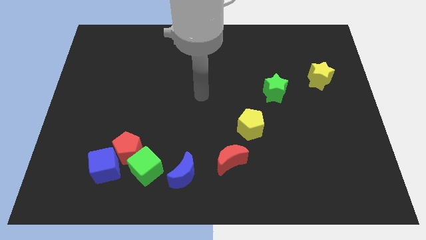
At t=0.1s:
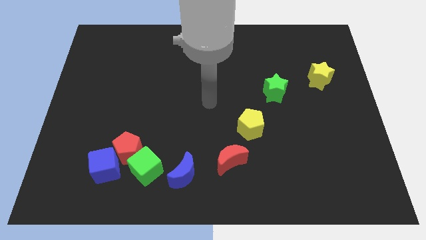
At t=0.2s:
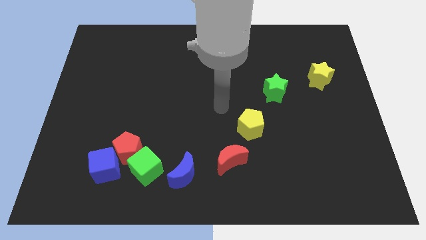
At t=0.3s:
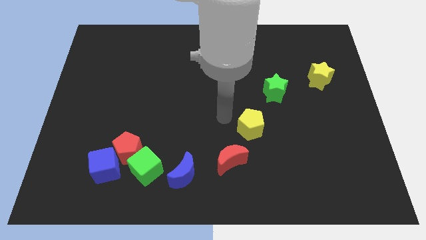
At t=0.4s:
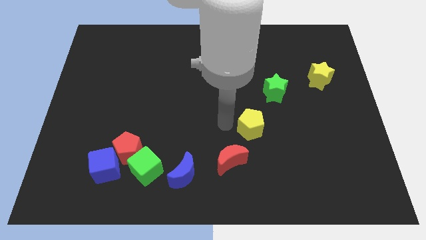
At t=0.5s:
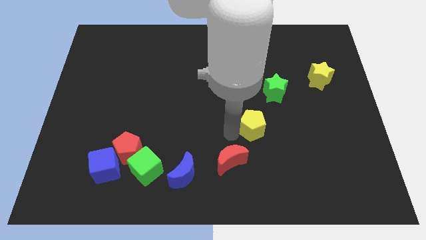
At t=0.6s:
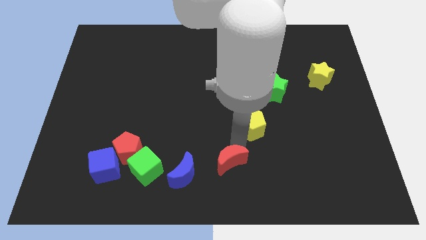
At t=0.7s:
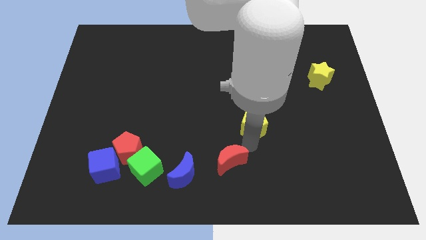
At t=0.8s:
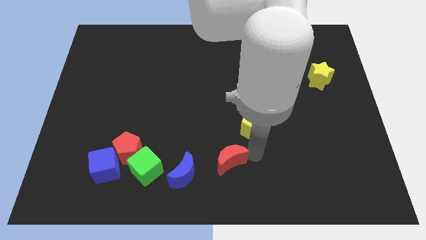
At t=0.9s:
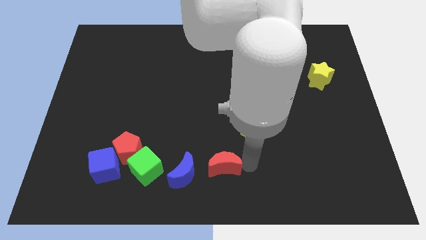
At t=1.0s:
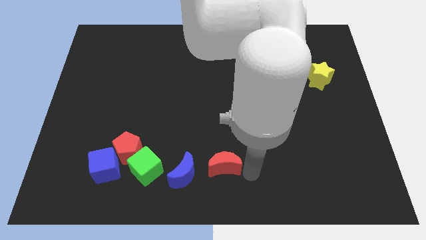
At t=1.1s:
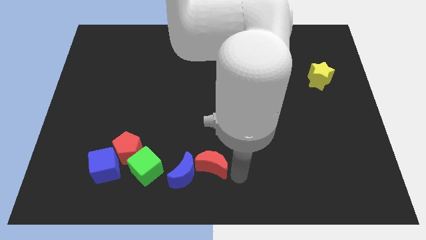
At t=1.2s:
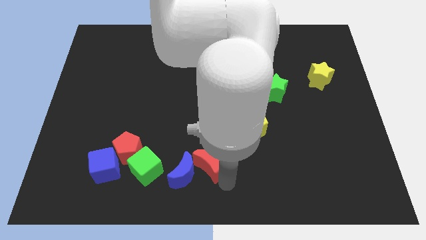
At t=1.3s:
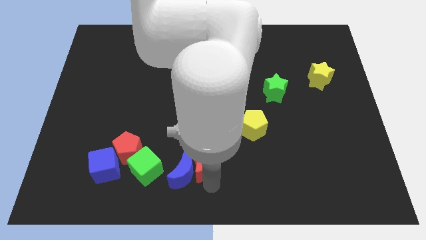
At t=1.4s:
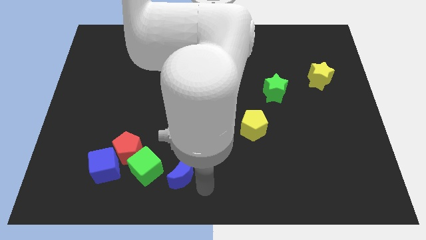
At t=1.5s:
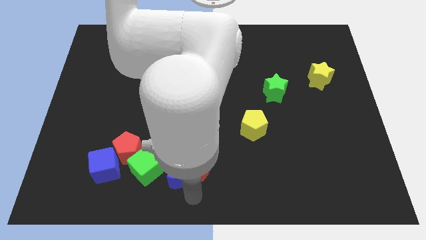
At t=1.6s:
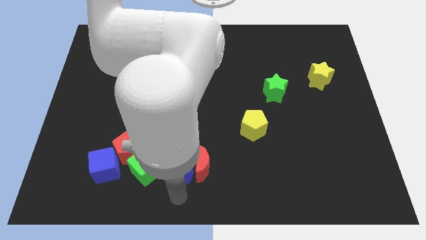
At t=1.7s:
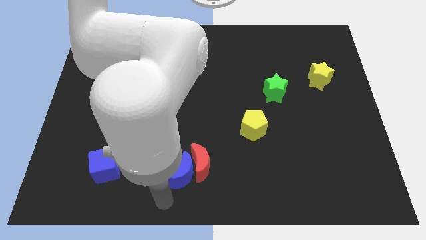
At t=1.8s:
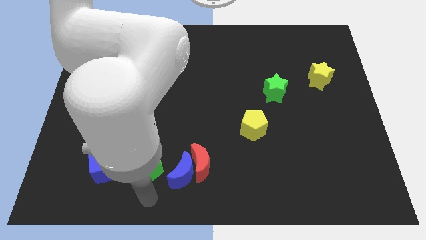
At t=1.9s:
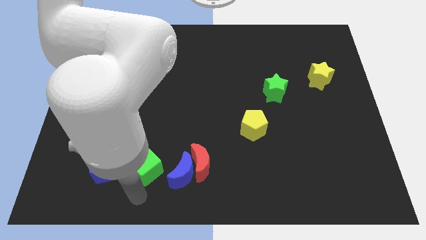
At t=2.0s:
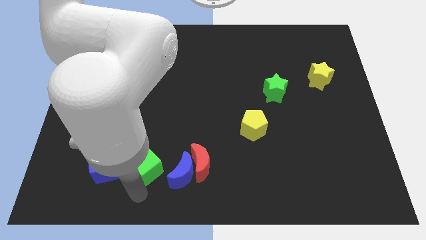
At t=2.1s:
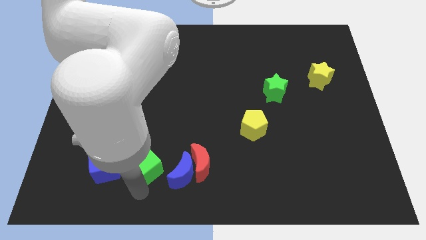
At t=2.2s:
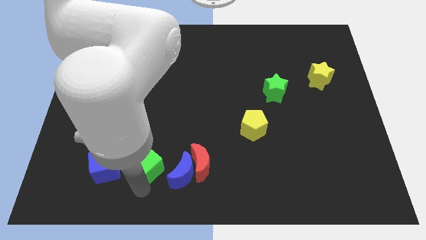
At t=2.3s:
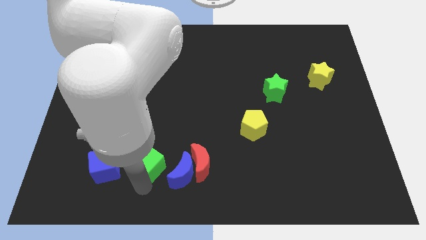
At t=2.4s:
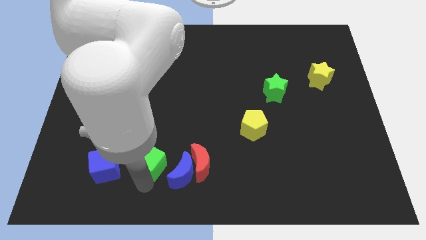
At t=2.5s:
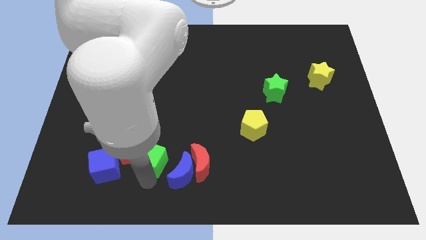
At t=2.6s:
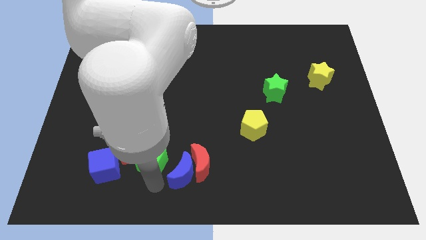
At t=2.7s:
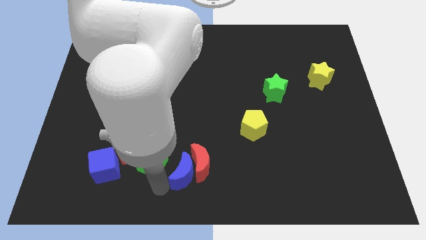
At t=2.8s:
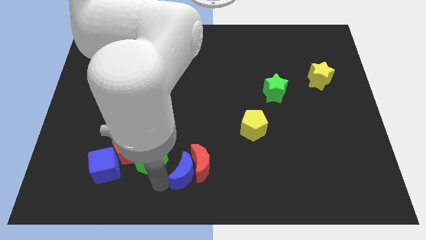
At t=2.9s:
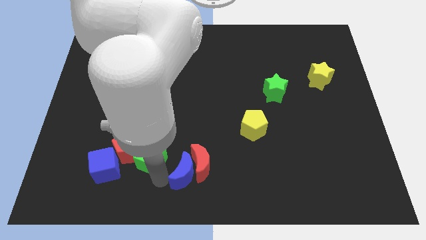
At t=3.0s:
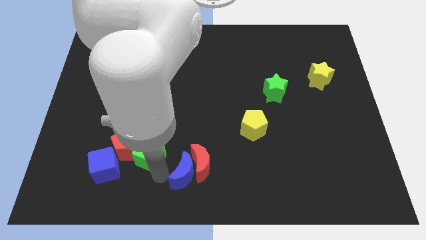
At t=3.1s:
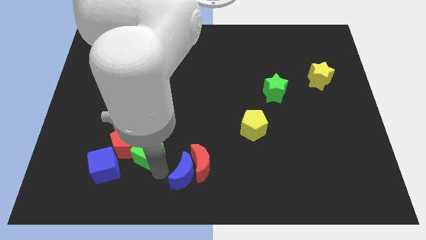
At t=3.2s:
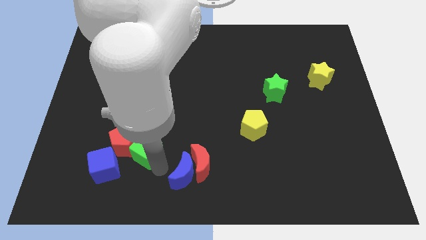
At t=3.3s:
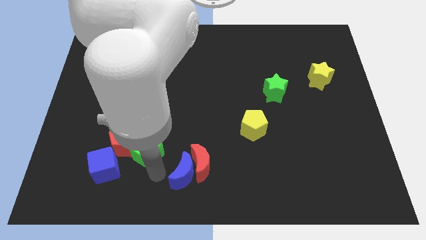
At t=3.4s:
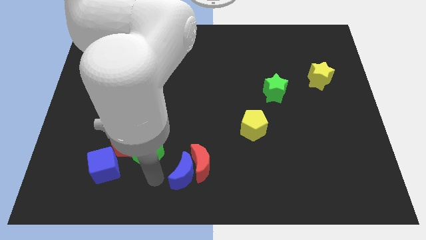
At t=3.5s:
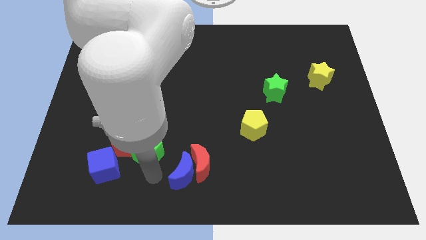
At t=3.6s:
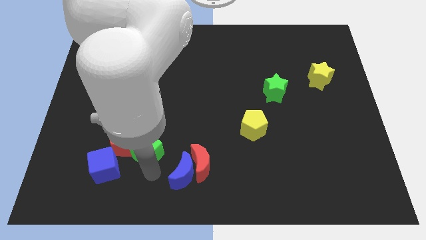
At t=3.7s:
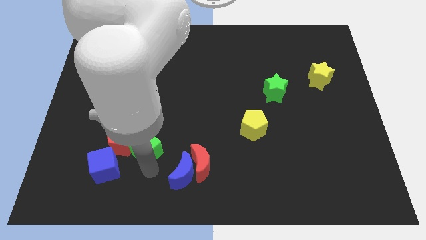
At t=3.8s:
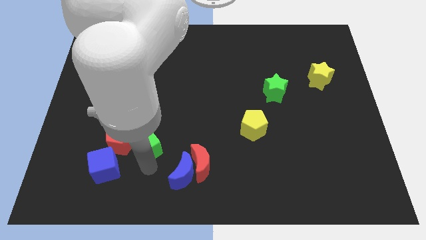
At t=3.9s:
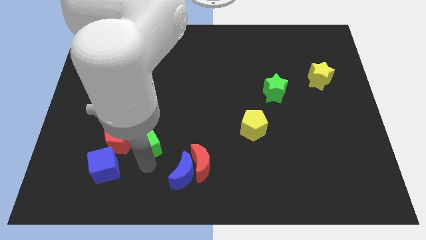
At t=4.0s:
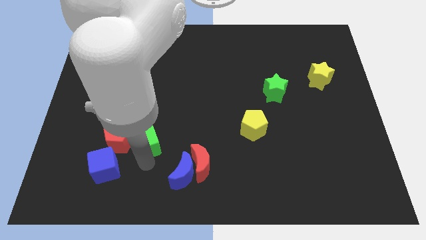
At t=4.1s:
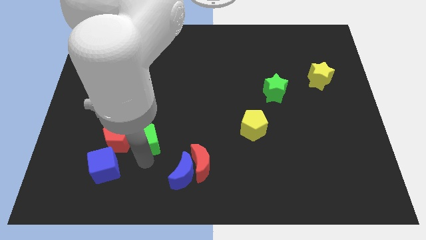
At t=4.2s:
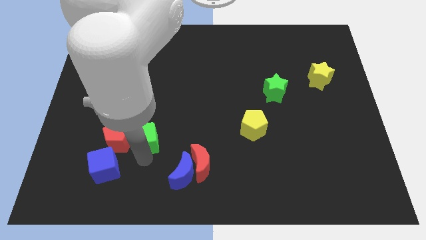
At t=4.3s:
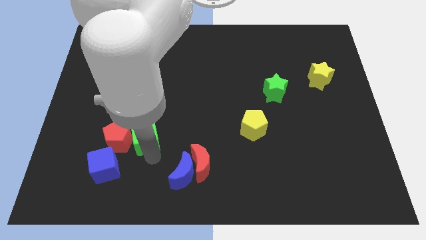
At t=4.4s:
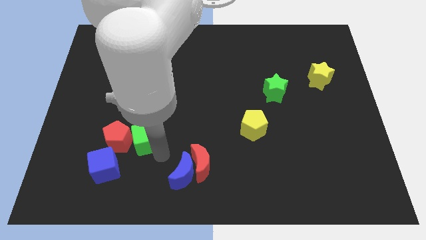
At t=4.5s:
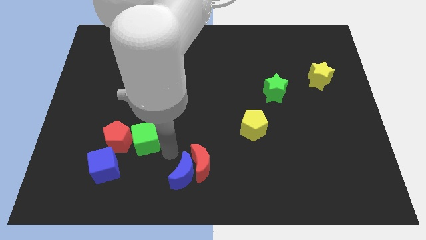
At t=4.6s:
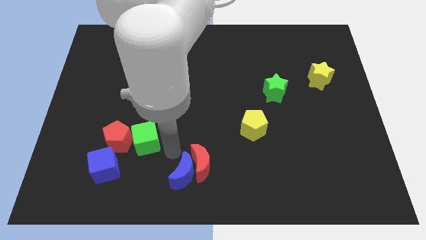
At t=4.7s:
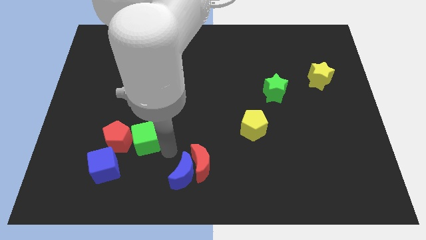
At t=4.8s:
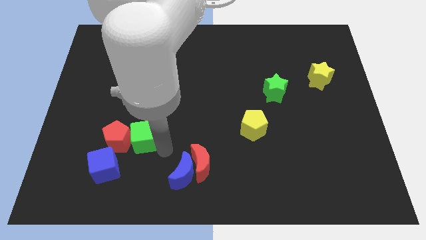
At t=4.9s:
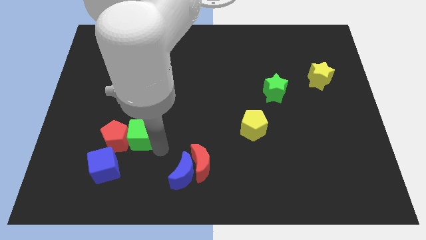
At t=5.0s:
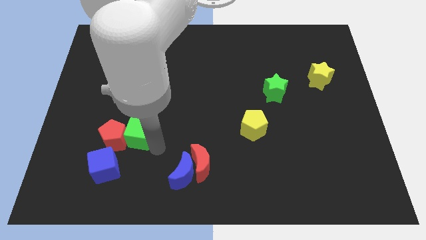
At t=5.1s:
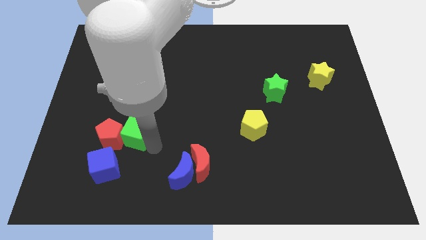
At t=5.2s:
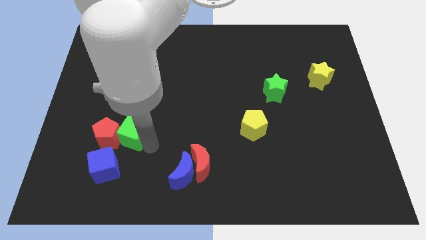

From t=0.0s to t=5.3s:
move the green cube to the top side of the blue cube

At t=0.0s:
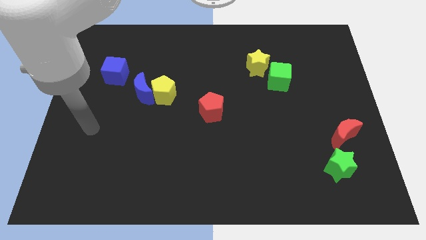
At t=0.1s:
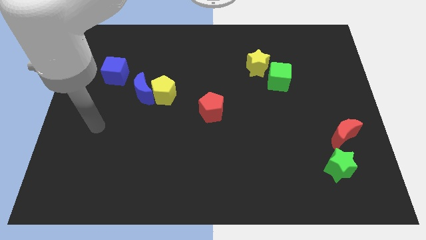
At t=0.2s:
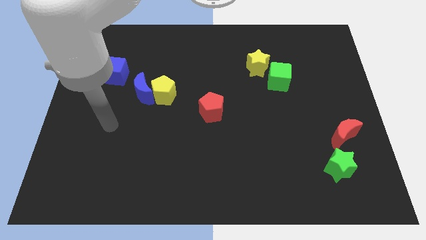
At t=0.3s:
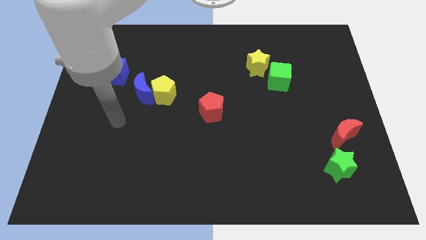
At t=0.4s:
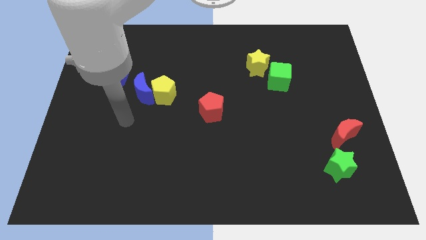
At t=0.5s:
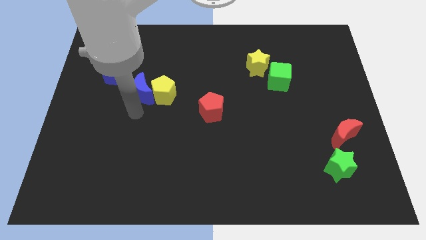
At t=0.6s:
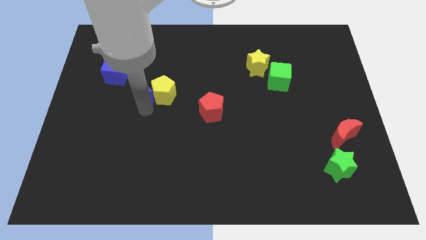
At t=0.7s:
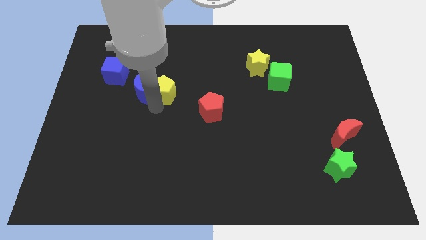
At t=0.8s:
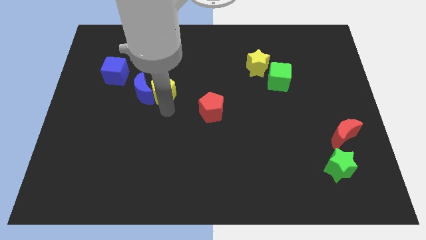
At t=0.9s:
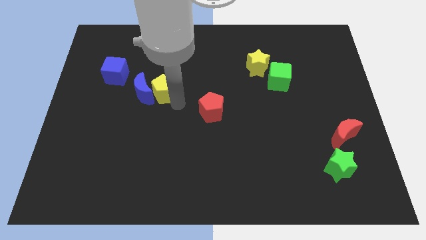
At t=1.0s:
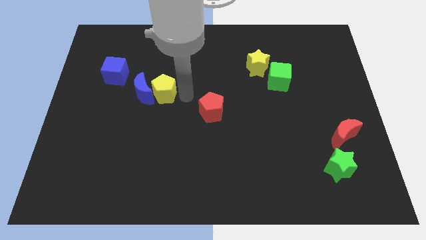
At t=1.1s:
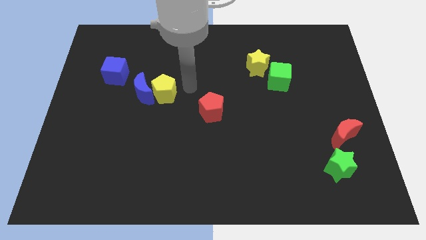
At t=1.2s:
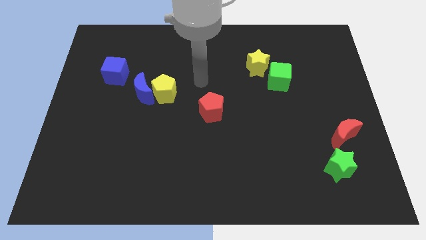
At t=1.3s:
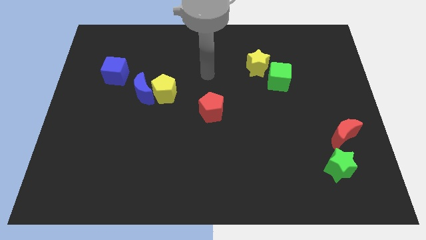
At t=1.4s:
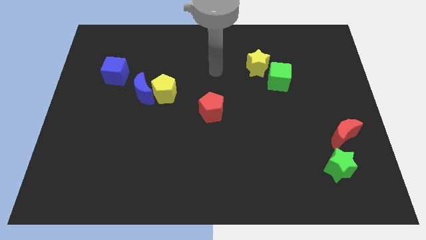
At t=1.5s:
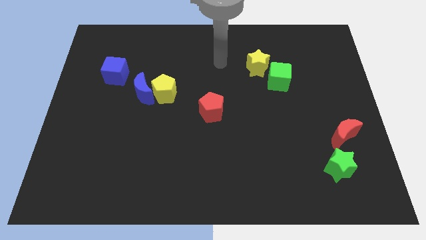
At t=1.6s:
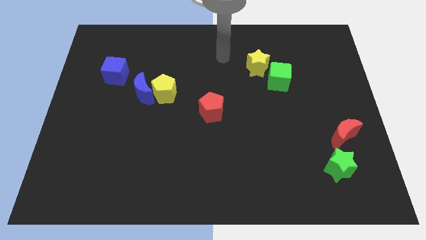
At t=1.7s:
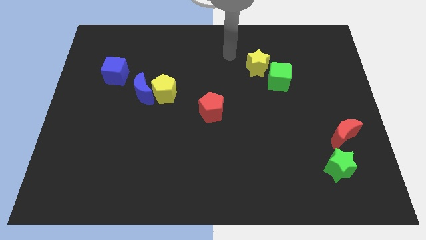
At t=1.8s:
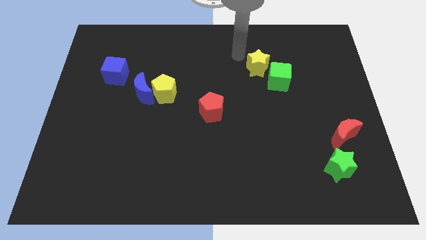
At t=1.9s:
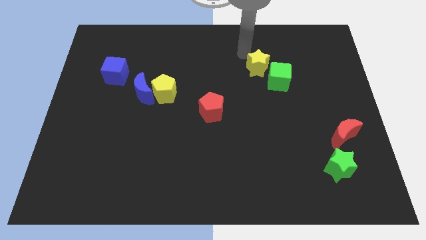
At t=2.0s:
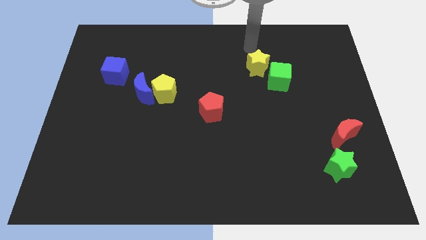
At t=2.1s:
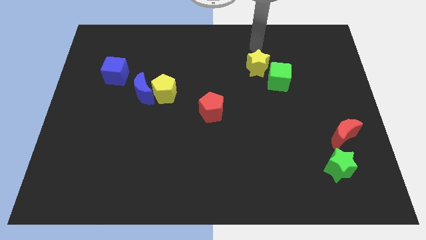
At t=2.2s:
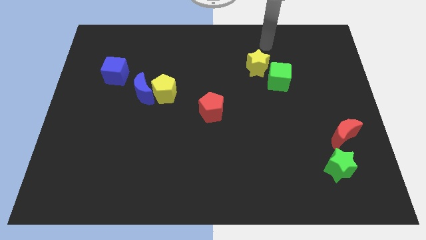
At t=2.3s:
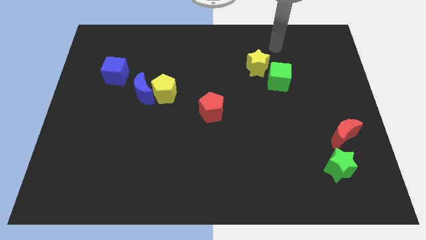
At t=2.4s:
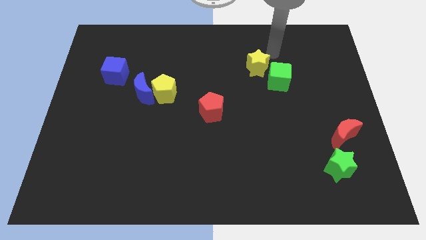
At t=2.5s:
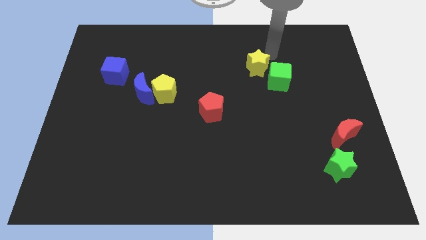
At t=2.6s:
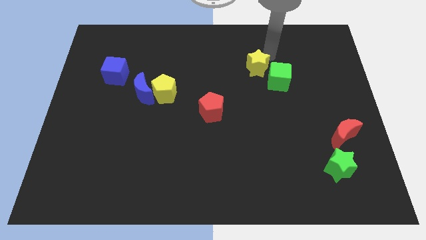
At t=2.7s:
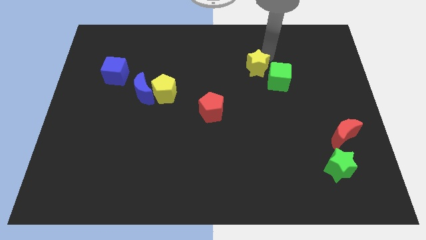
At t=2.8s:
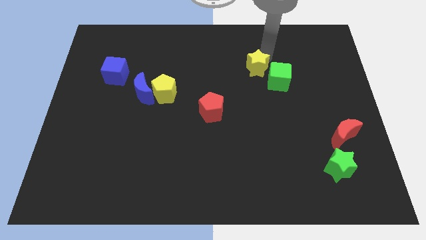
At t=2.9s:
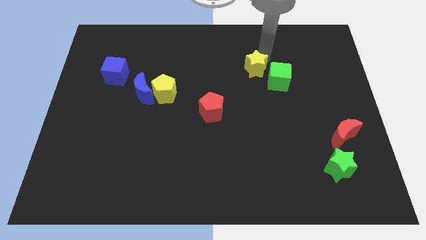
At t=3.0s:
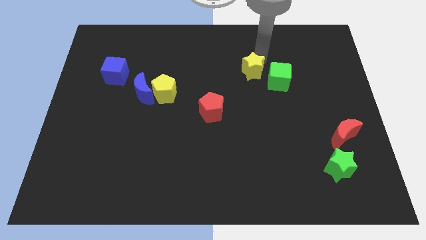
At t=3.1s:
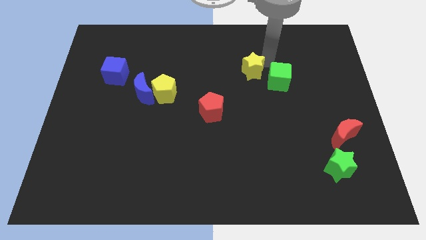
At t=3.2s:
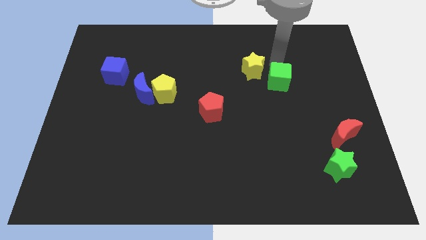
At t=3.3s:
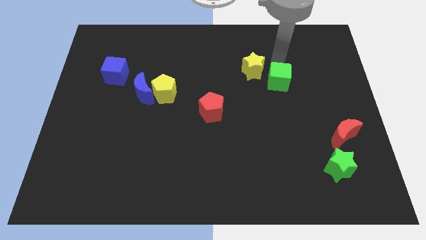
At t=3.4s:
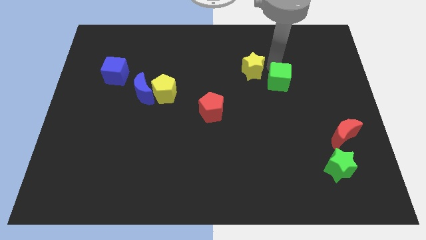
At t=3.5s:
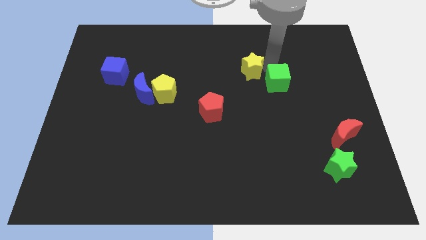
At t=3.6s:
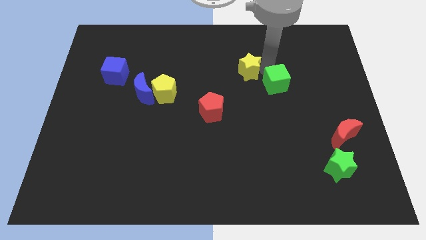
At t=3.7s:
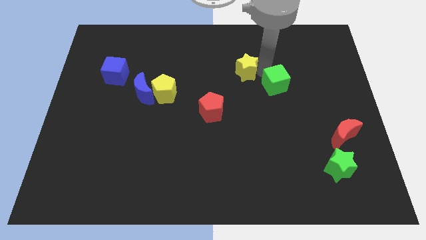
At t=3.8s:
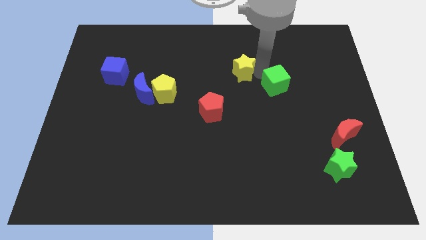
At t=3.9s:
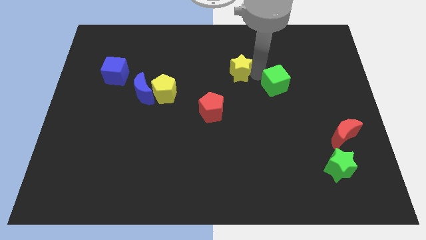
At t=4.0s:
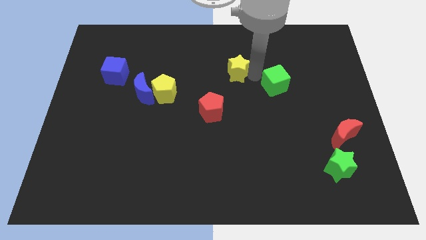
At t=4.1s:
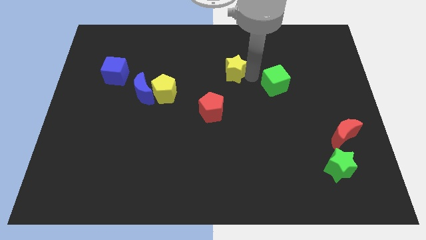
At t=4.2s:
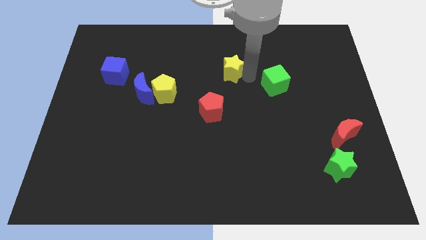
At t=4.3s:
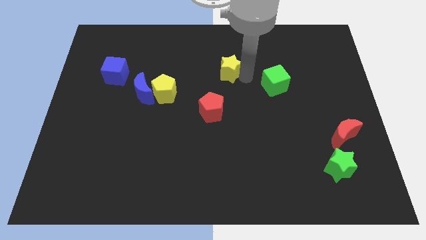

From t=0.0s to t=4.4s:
move the yellow star to the top side of the red pentagon
